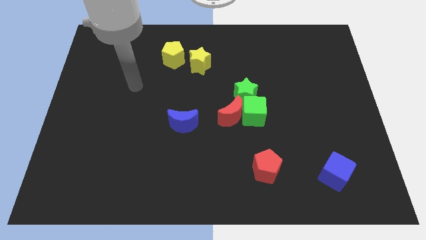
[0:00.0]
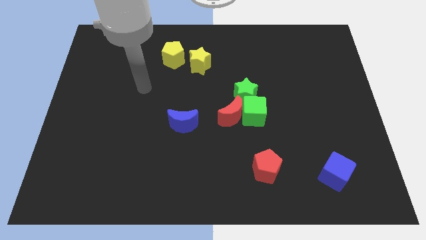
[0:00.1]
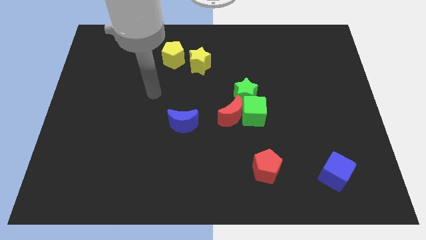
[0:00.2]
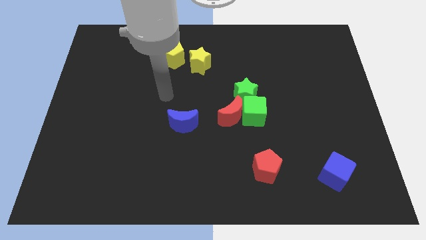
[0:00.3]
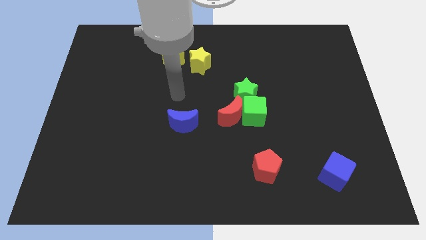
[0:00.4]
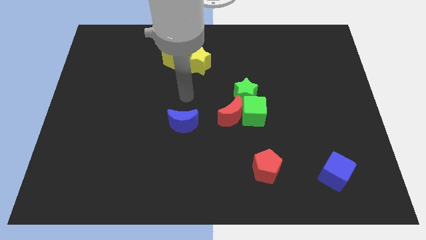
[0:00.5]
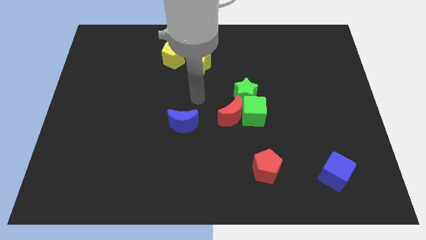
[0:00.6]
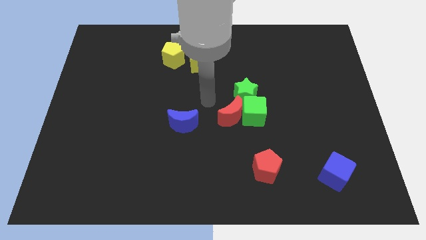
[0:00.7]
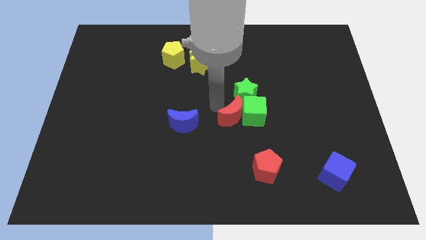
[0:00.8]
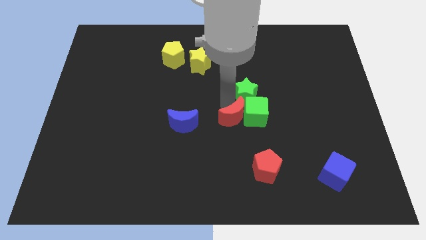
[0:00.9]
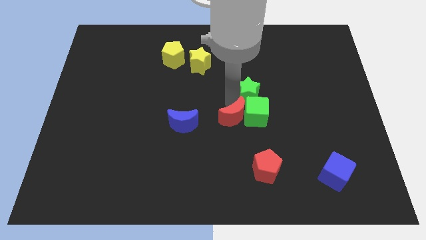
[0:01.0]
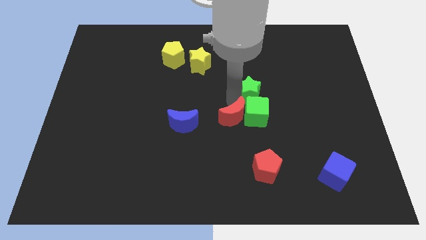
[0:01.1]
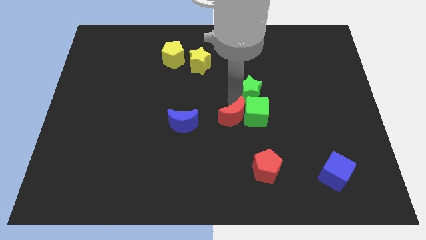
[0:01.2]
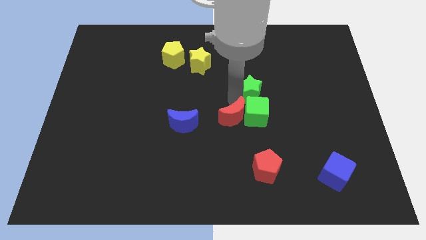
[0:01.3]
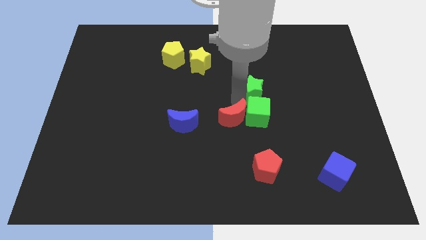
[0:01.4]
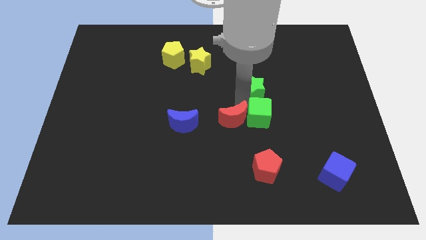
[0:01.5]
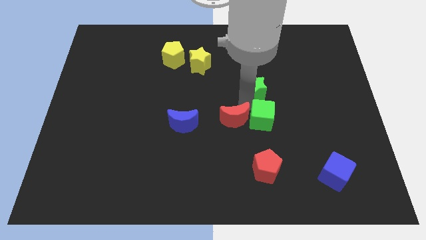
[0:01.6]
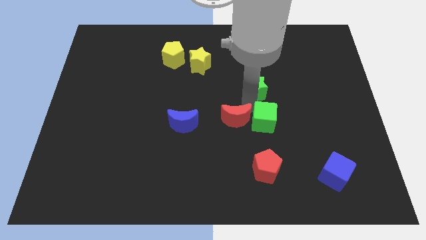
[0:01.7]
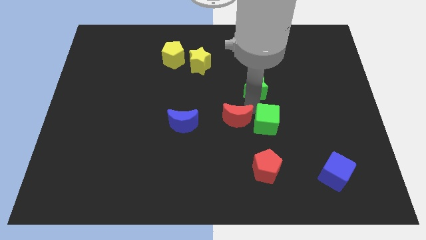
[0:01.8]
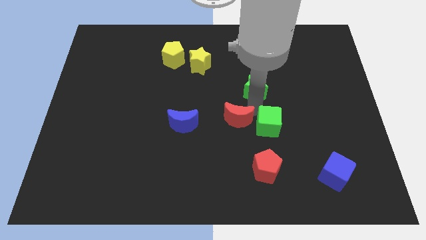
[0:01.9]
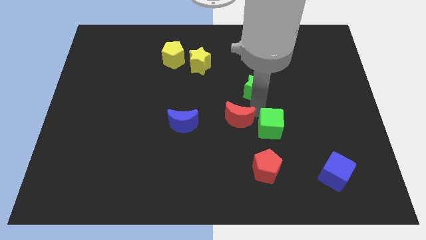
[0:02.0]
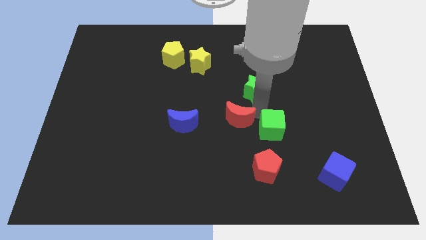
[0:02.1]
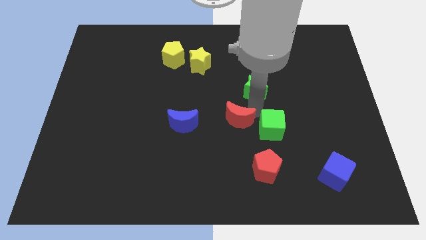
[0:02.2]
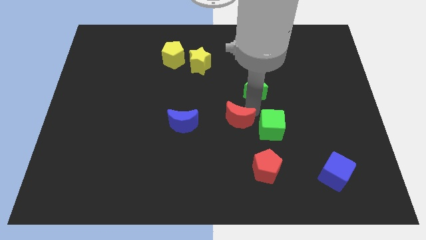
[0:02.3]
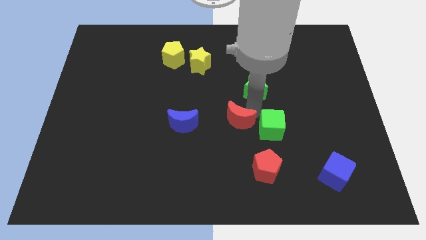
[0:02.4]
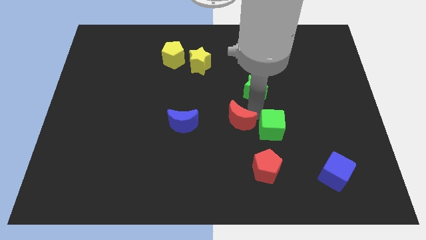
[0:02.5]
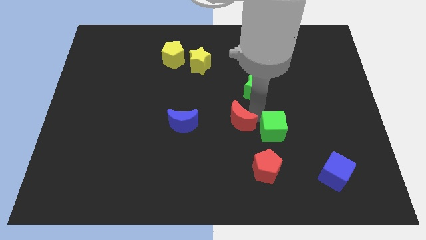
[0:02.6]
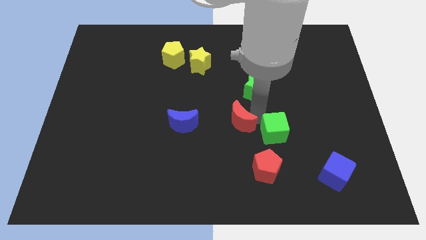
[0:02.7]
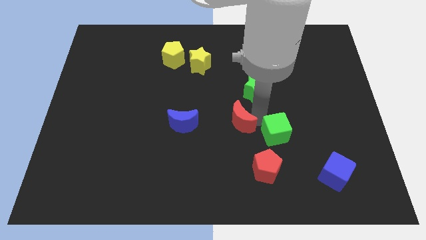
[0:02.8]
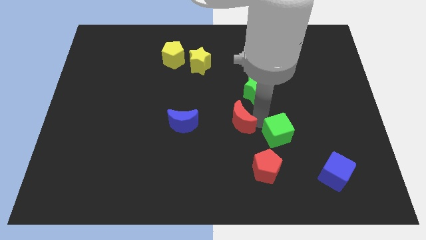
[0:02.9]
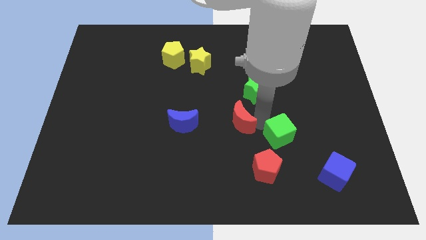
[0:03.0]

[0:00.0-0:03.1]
pull the green cube apart from the red moon and green star

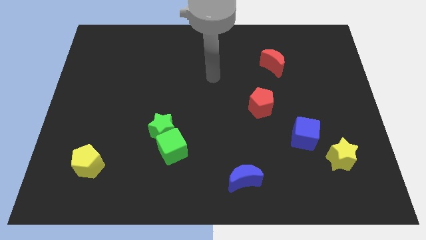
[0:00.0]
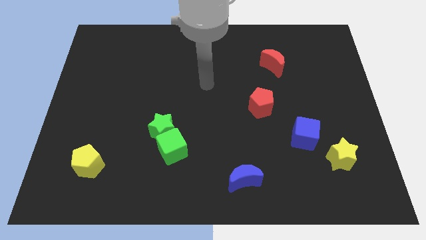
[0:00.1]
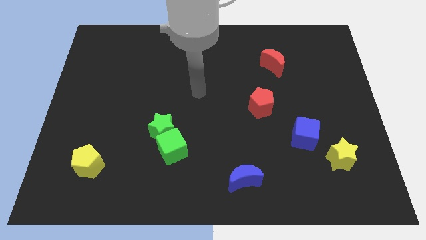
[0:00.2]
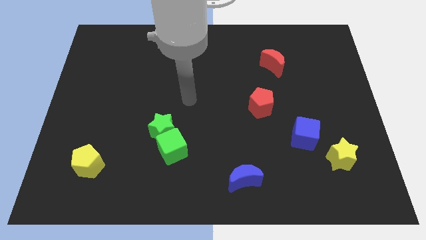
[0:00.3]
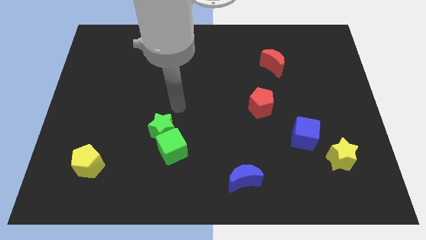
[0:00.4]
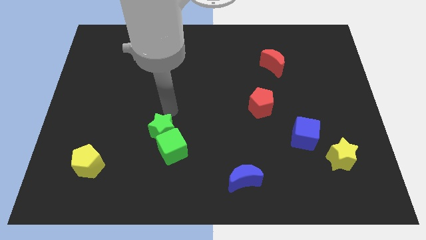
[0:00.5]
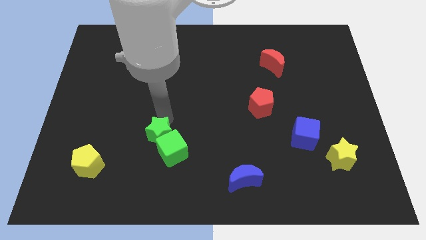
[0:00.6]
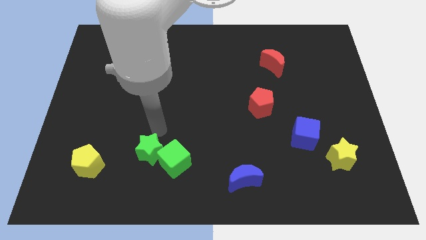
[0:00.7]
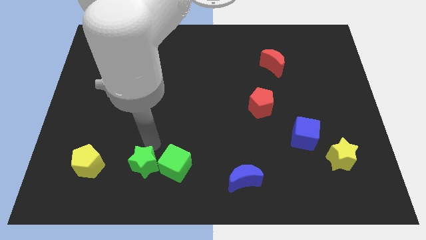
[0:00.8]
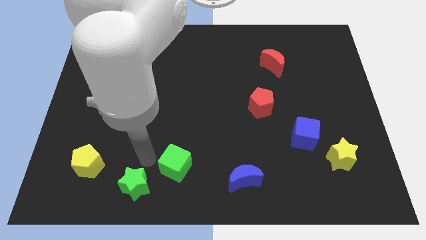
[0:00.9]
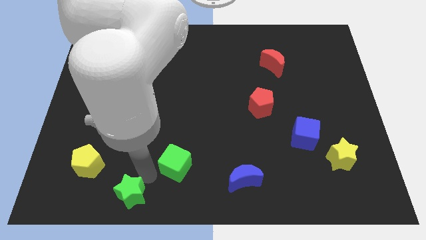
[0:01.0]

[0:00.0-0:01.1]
pull the green cube apart from the green star

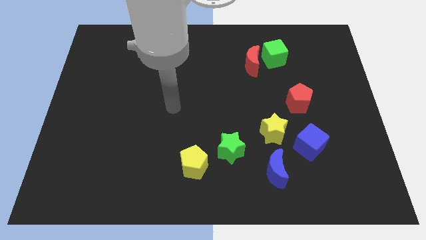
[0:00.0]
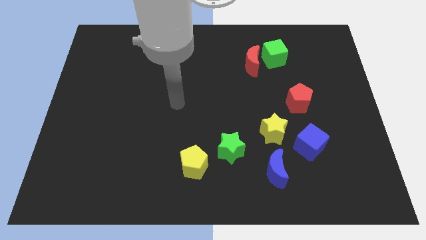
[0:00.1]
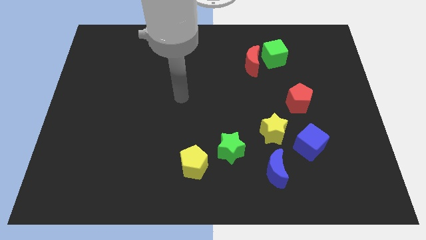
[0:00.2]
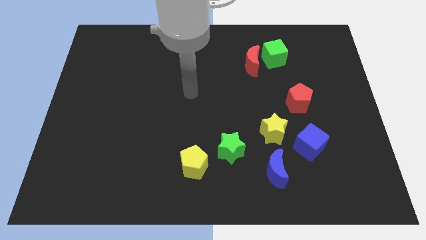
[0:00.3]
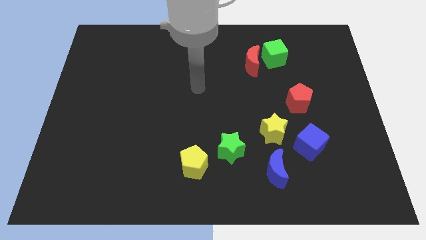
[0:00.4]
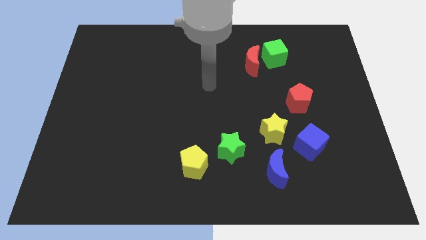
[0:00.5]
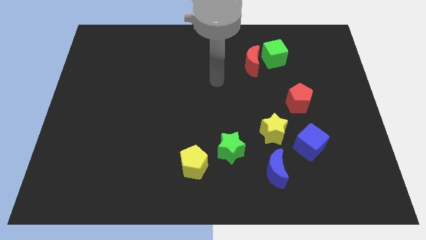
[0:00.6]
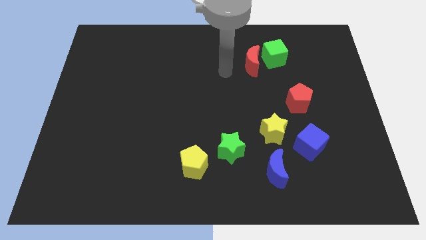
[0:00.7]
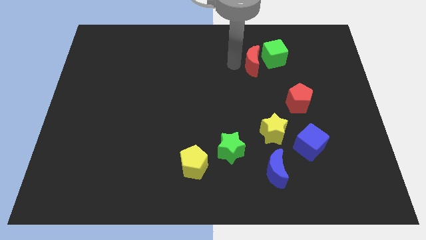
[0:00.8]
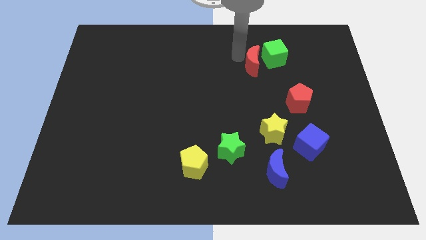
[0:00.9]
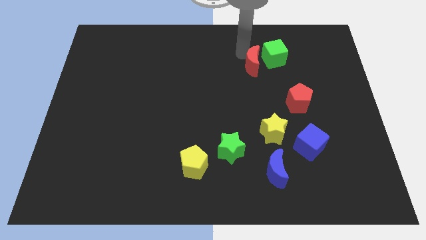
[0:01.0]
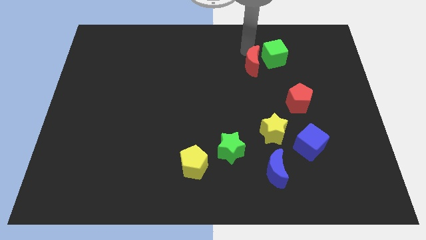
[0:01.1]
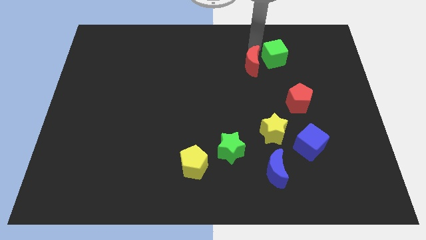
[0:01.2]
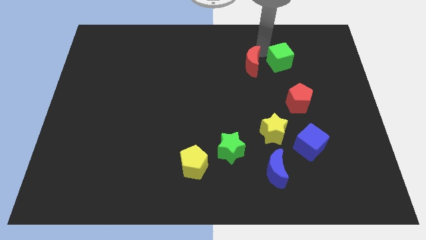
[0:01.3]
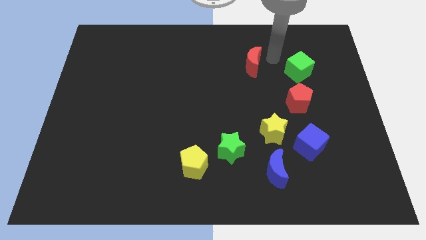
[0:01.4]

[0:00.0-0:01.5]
move the red moon away from the green cube

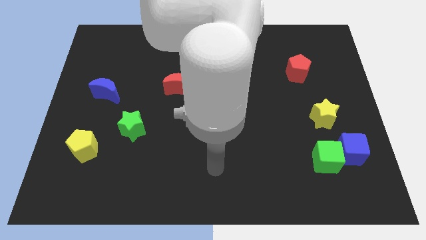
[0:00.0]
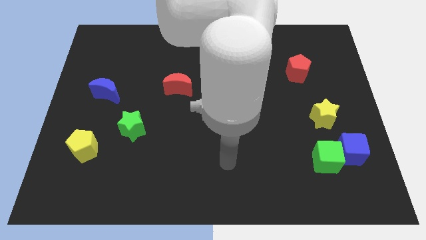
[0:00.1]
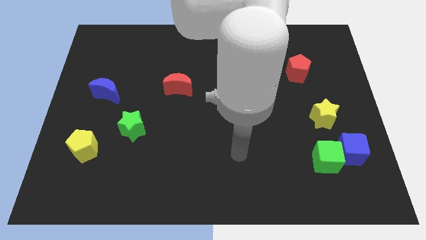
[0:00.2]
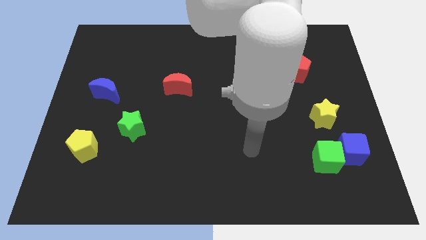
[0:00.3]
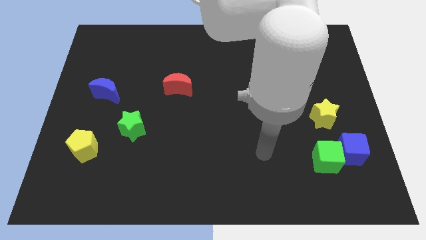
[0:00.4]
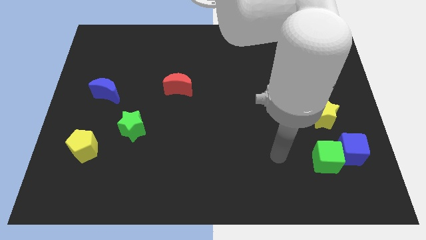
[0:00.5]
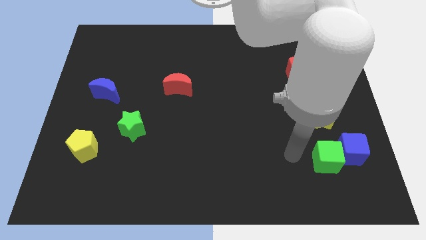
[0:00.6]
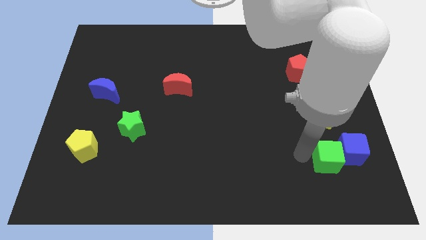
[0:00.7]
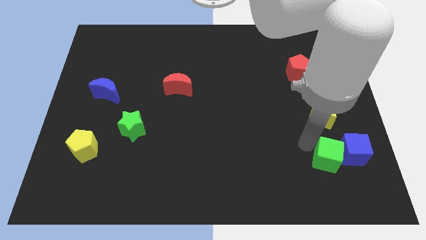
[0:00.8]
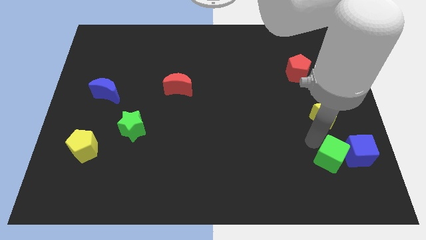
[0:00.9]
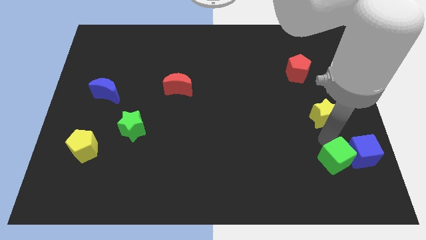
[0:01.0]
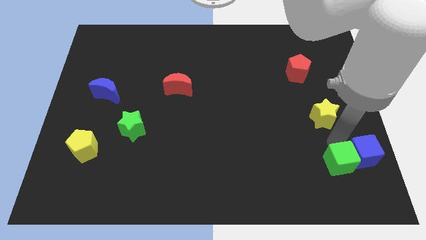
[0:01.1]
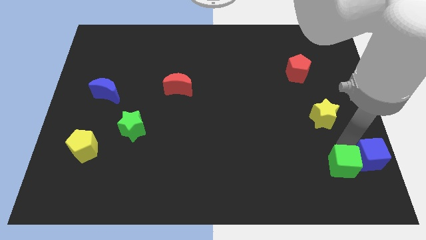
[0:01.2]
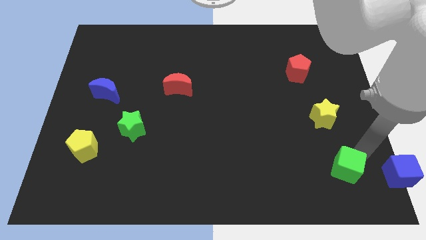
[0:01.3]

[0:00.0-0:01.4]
pull the green cube apart from the blue cube

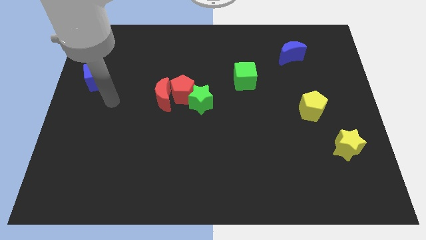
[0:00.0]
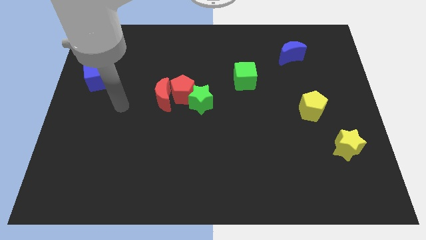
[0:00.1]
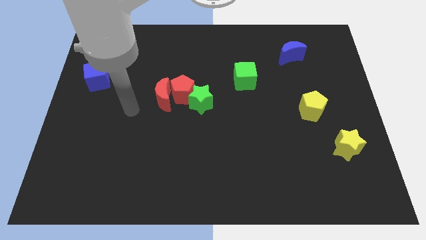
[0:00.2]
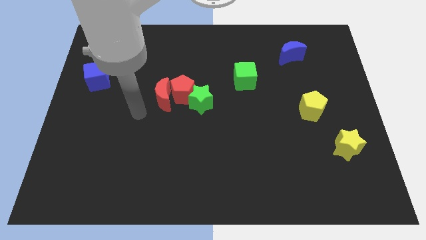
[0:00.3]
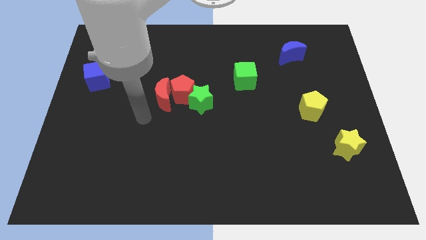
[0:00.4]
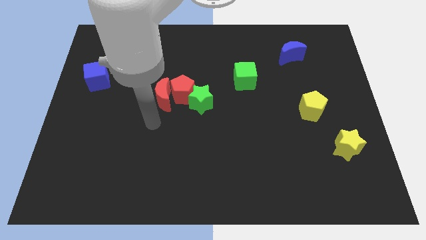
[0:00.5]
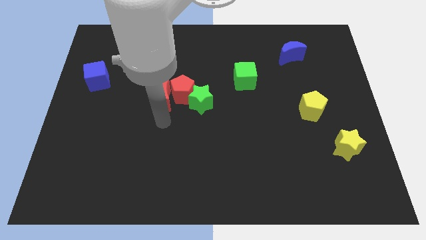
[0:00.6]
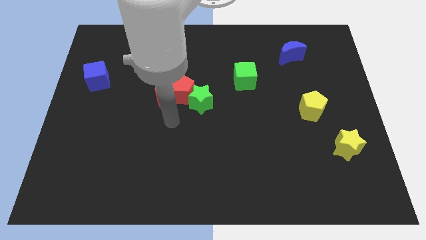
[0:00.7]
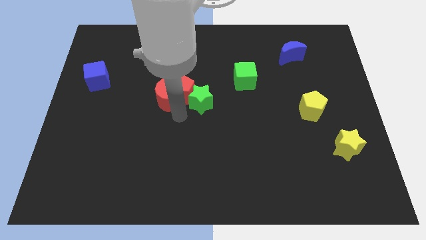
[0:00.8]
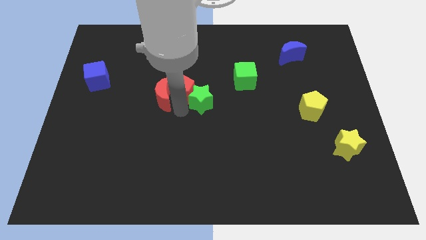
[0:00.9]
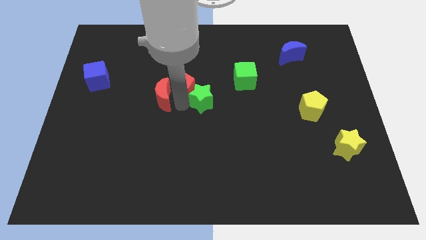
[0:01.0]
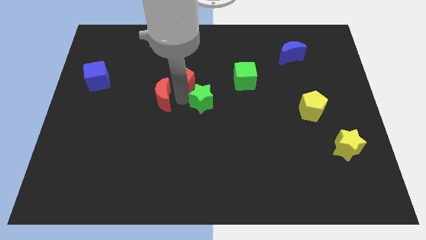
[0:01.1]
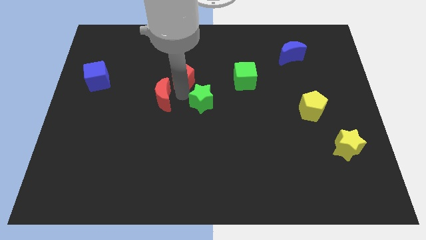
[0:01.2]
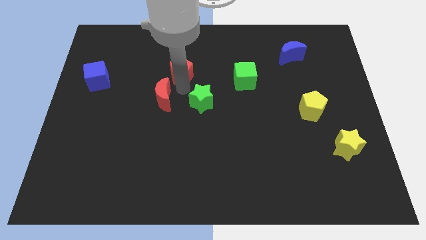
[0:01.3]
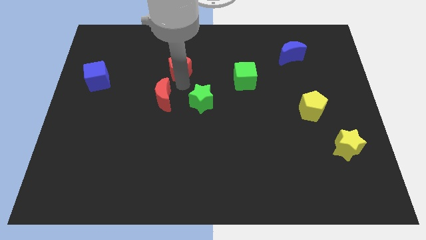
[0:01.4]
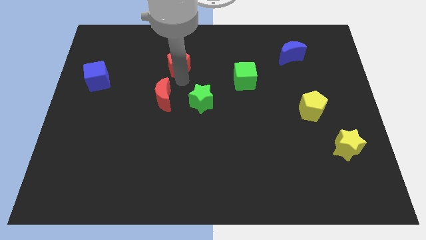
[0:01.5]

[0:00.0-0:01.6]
move the red pentagon away from the red moon and green star

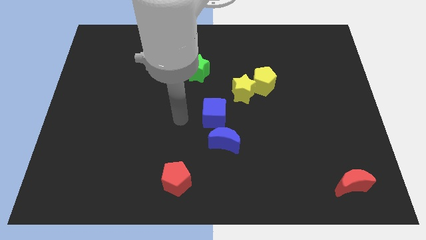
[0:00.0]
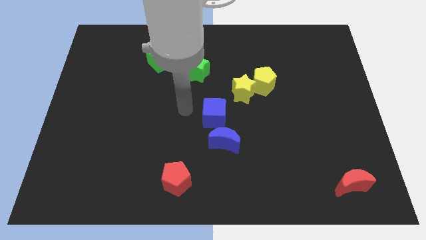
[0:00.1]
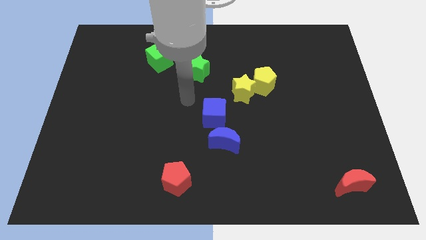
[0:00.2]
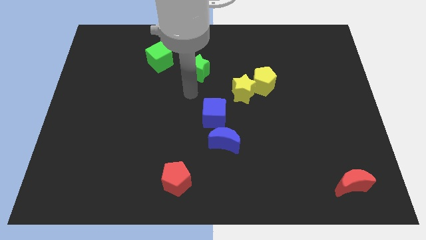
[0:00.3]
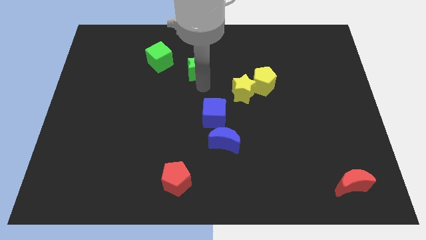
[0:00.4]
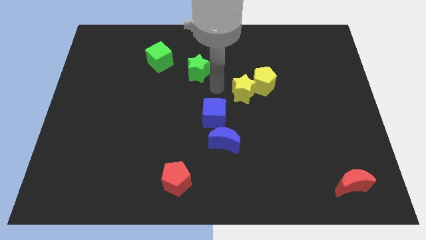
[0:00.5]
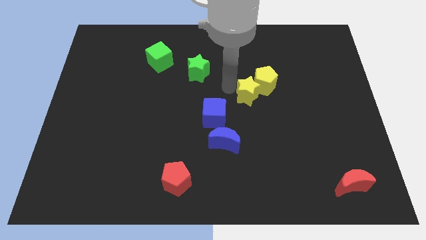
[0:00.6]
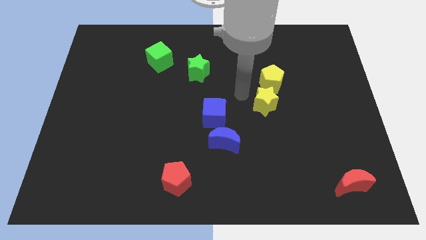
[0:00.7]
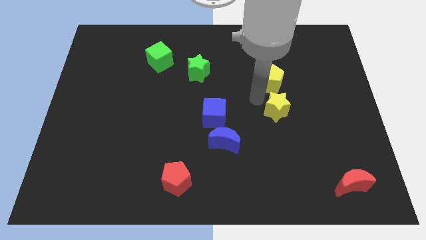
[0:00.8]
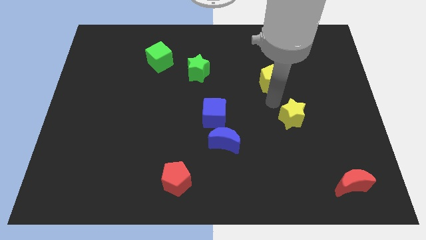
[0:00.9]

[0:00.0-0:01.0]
pull the yellow pentagon apart from the yellow star
